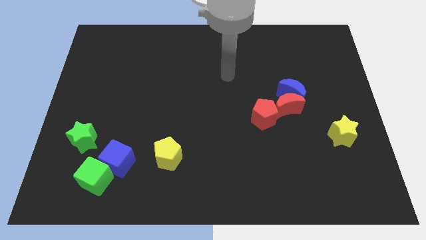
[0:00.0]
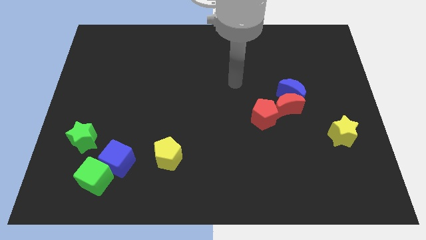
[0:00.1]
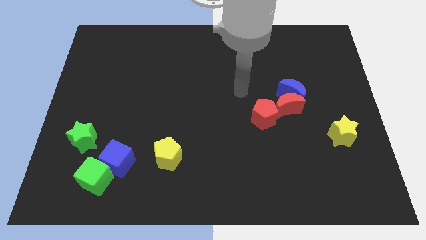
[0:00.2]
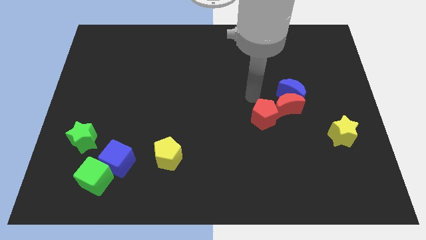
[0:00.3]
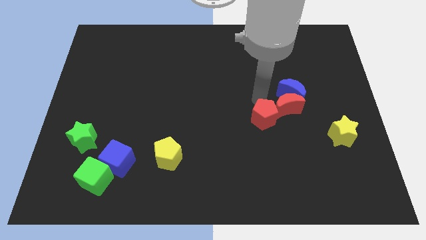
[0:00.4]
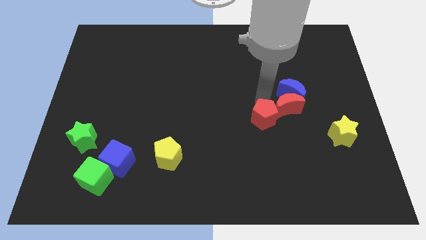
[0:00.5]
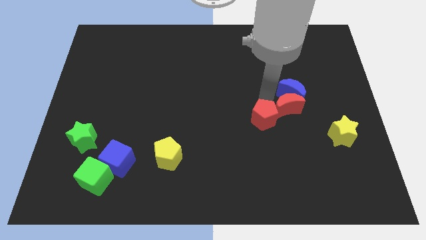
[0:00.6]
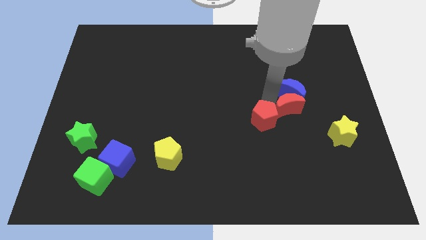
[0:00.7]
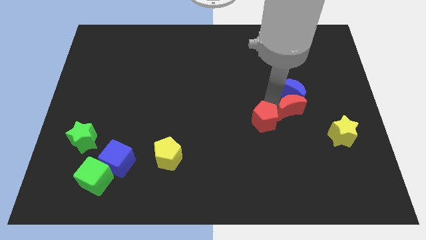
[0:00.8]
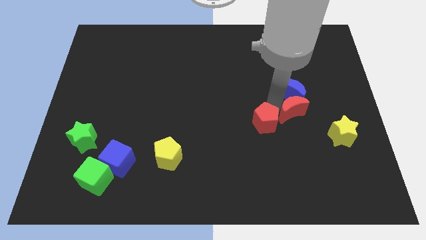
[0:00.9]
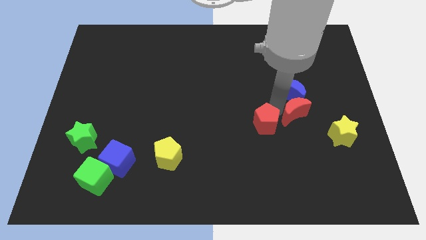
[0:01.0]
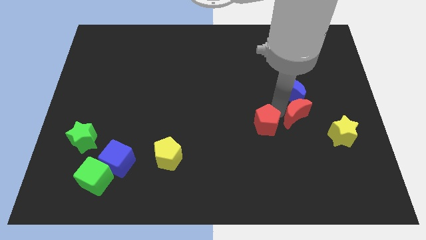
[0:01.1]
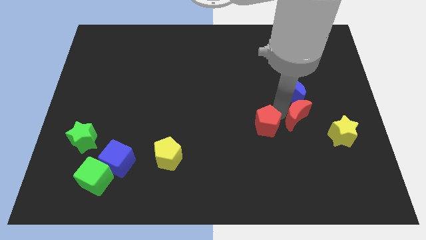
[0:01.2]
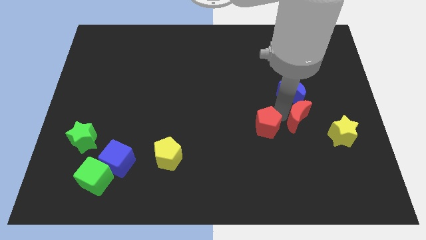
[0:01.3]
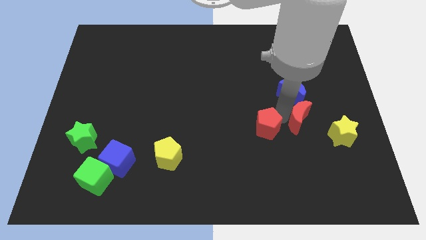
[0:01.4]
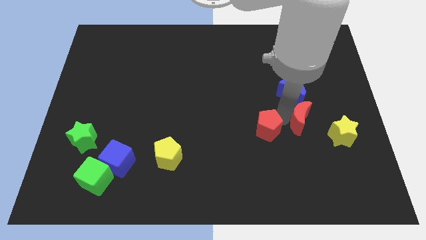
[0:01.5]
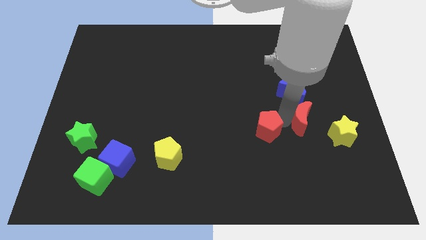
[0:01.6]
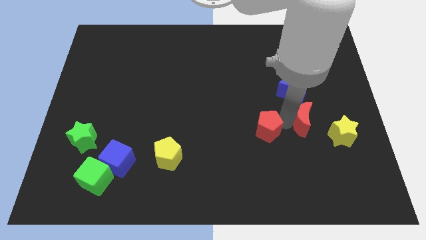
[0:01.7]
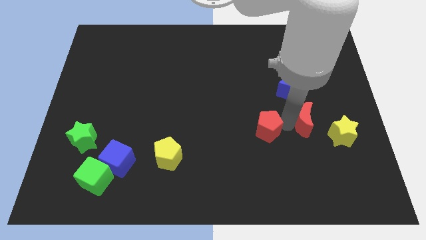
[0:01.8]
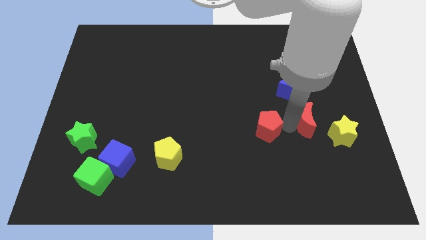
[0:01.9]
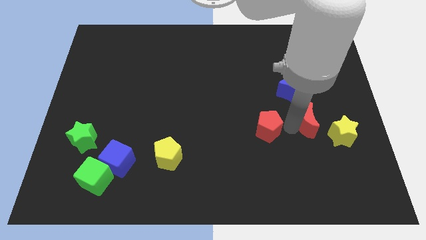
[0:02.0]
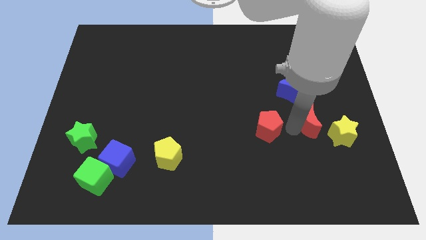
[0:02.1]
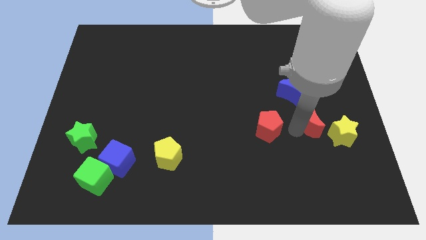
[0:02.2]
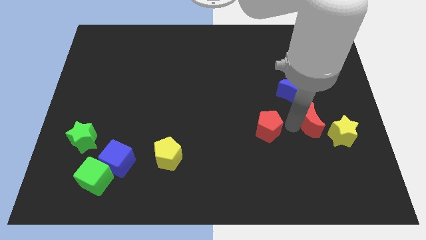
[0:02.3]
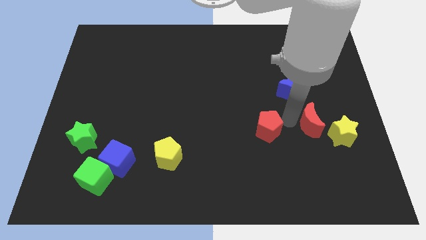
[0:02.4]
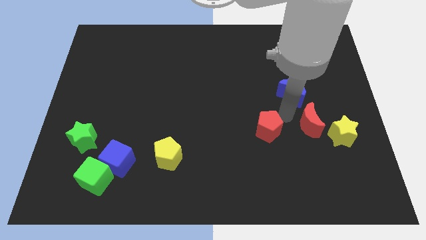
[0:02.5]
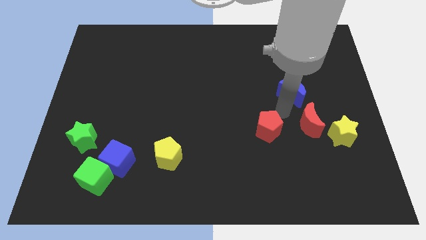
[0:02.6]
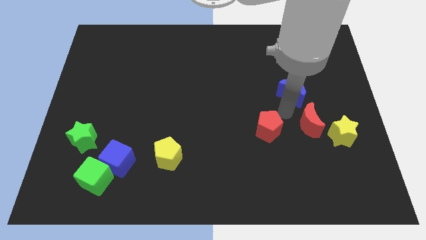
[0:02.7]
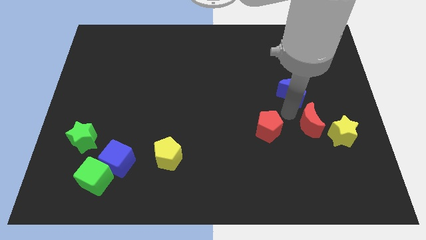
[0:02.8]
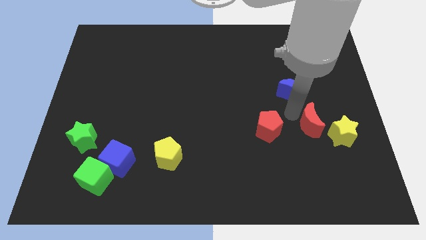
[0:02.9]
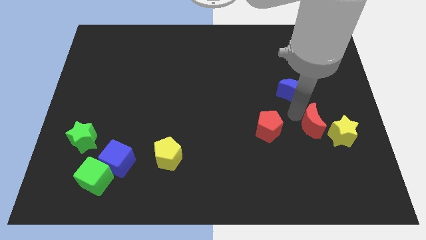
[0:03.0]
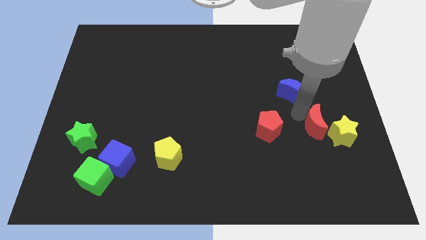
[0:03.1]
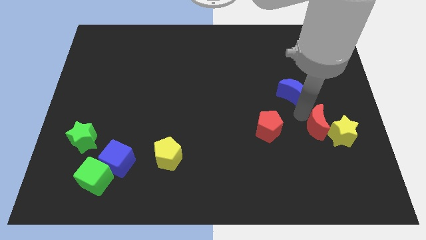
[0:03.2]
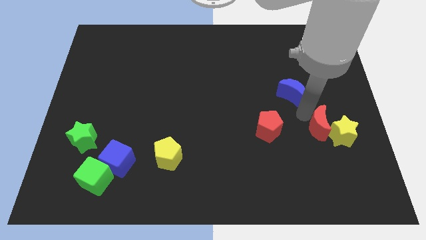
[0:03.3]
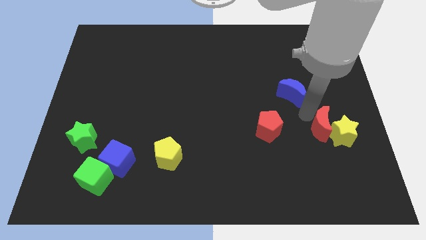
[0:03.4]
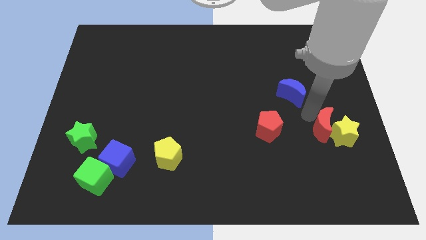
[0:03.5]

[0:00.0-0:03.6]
pull the red moon apart from the blue moon and red pentagon

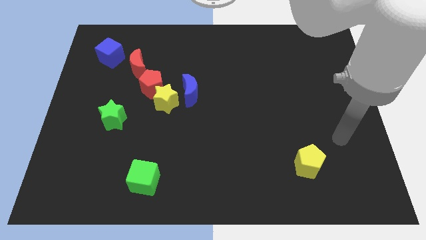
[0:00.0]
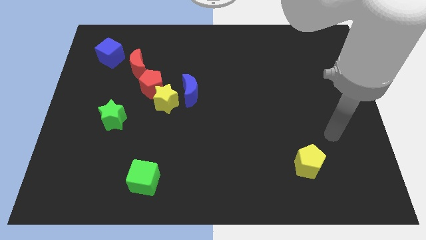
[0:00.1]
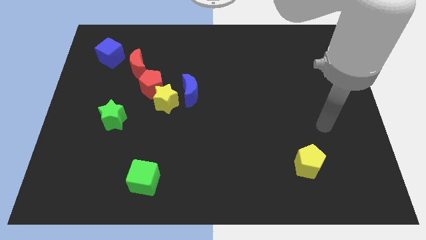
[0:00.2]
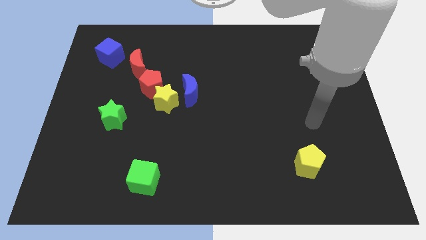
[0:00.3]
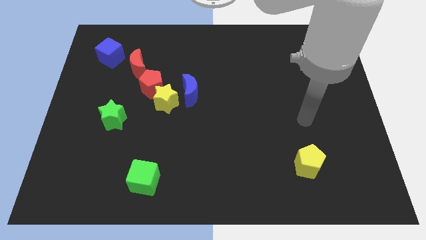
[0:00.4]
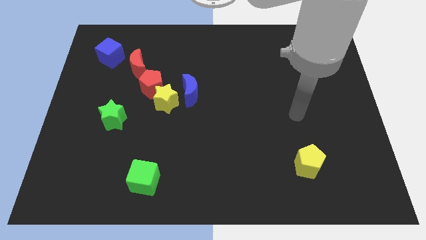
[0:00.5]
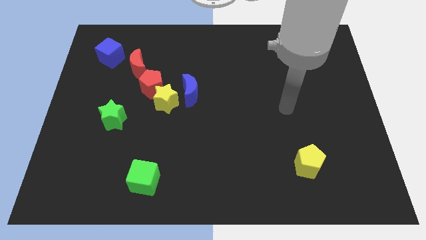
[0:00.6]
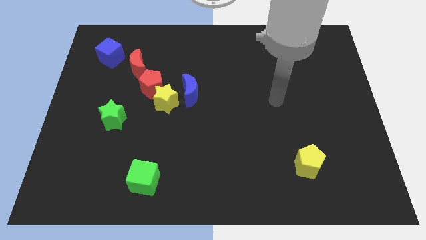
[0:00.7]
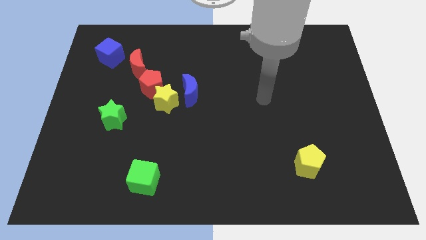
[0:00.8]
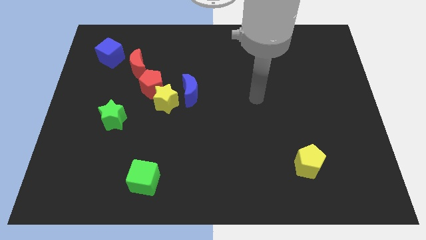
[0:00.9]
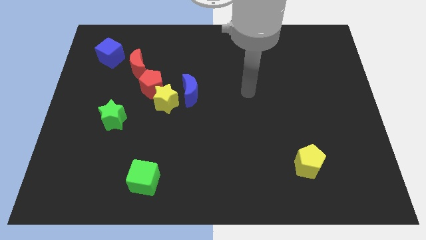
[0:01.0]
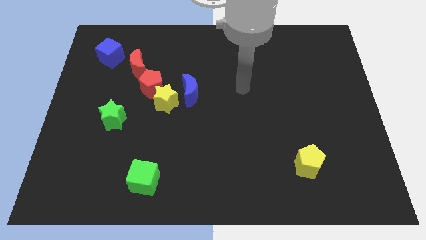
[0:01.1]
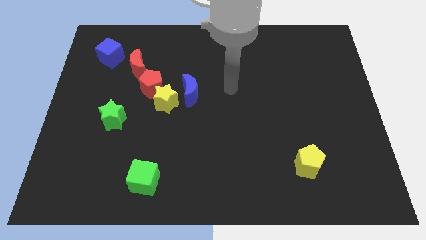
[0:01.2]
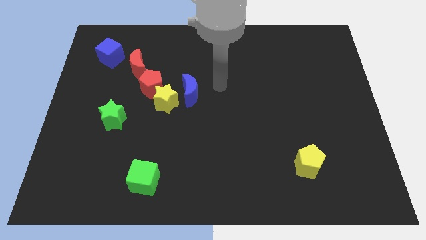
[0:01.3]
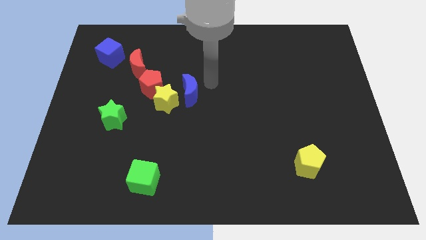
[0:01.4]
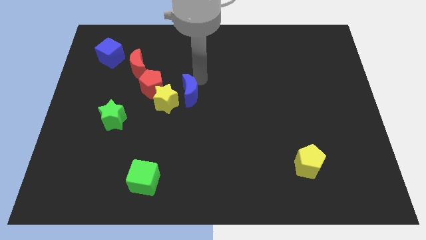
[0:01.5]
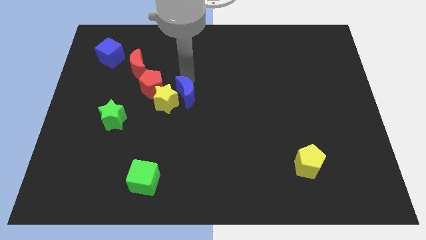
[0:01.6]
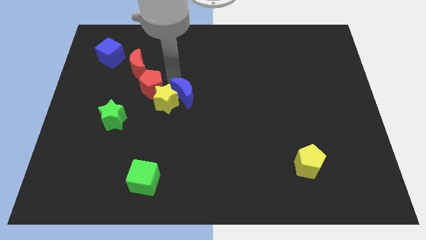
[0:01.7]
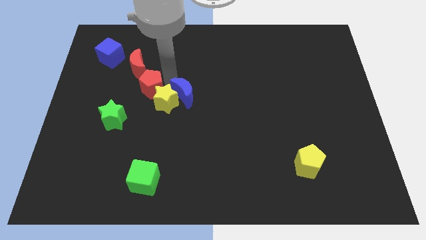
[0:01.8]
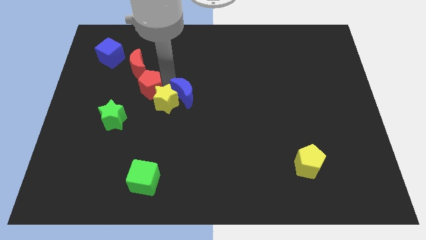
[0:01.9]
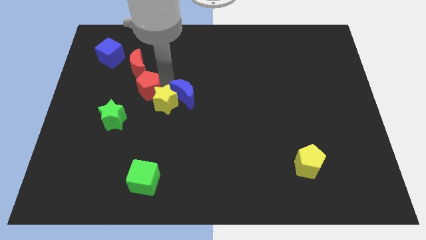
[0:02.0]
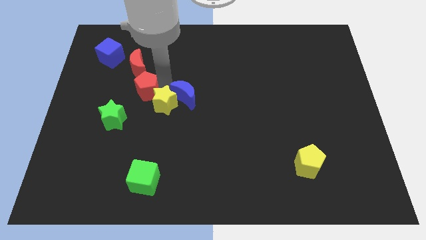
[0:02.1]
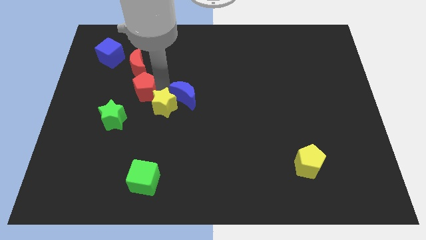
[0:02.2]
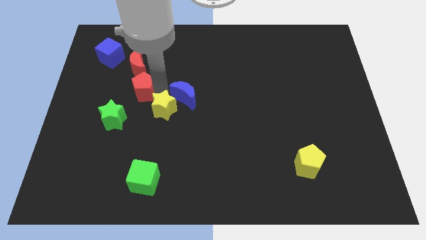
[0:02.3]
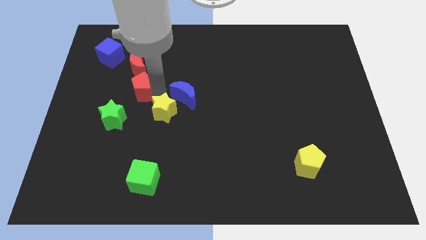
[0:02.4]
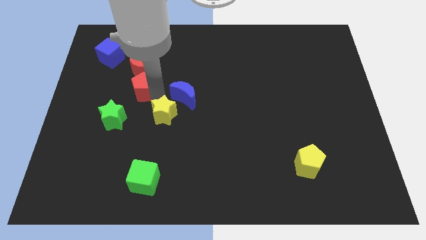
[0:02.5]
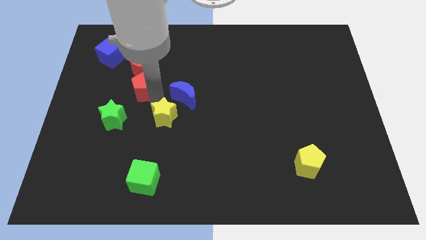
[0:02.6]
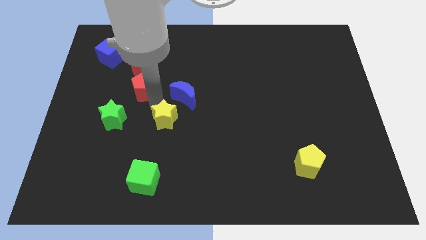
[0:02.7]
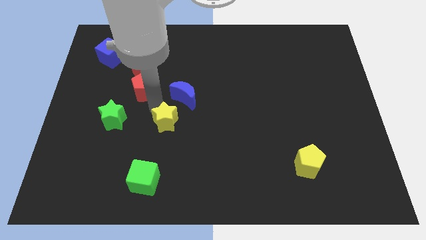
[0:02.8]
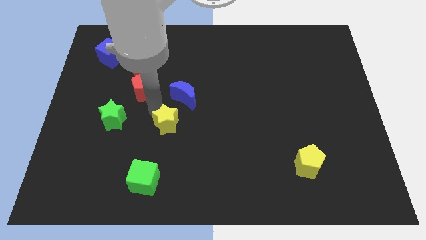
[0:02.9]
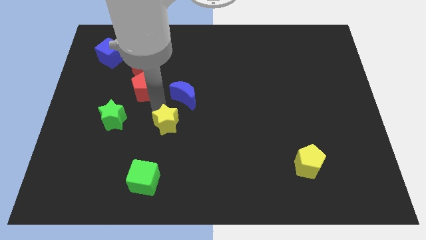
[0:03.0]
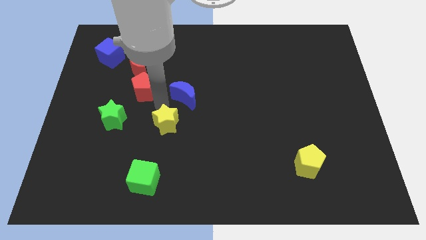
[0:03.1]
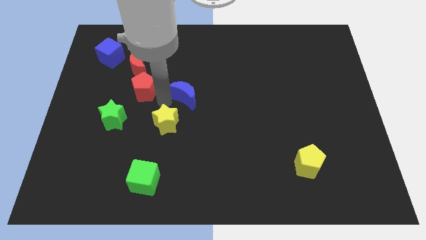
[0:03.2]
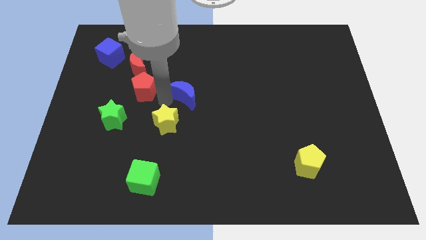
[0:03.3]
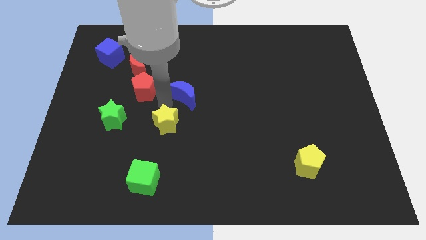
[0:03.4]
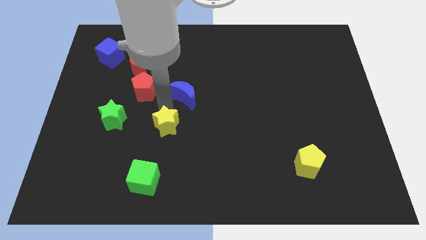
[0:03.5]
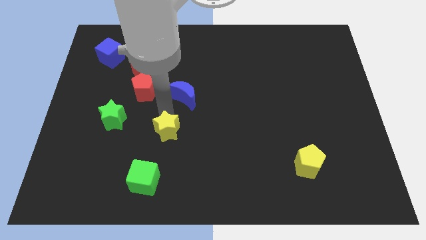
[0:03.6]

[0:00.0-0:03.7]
pull the yellow star apart from the red pentagon and blue moon

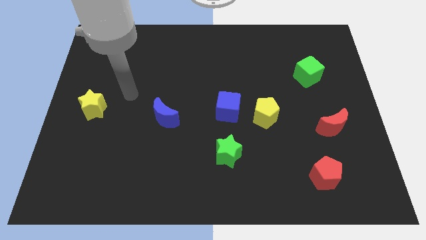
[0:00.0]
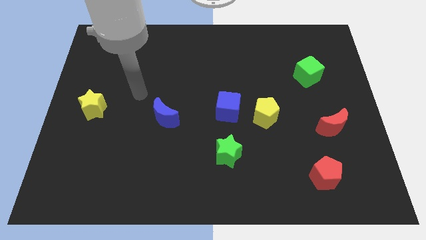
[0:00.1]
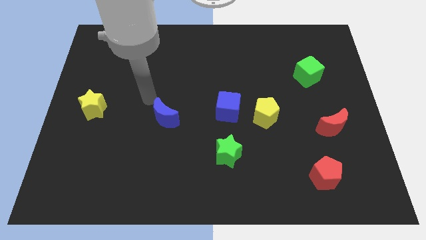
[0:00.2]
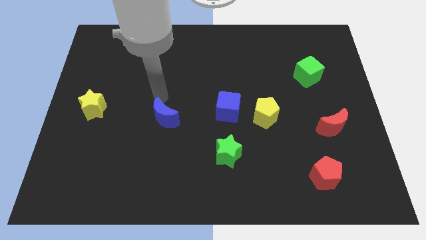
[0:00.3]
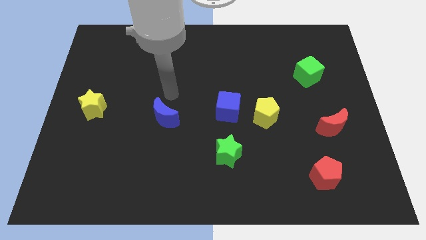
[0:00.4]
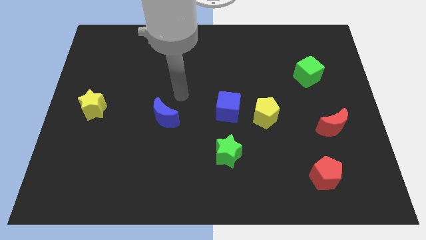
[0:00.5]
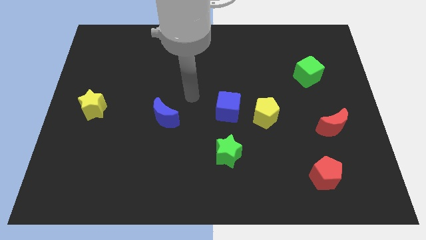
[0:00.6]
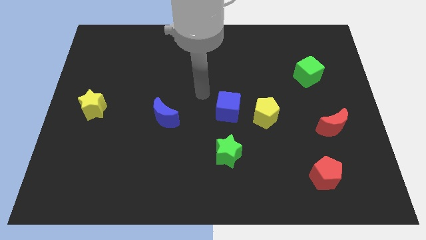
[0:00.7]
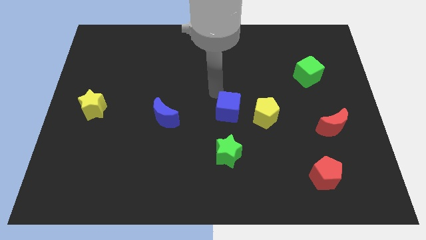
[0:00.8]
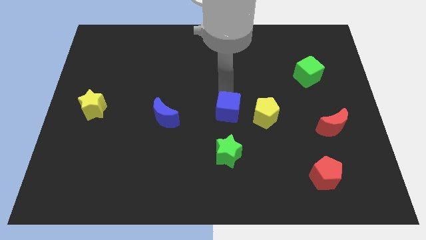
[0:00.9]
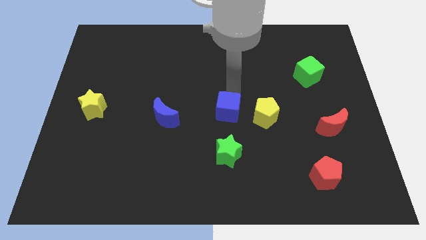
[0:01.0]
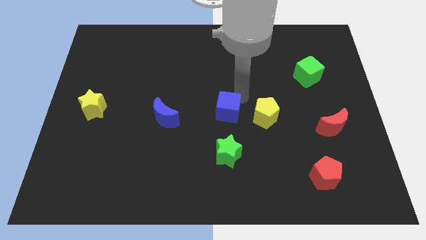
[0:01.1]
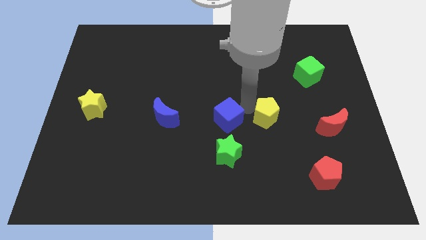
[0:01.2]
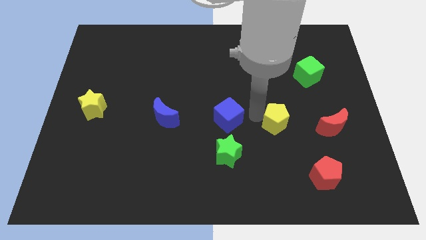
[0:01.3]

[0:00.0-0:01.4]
pull the blue cube apart from the yellow pentagon

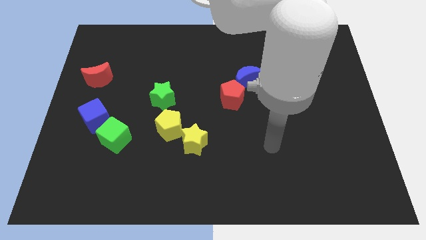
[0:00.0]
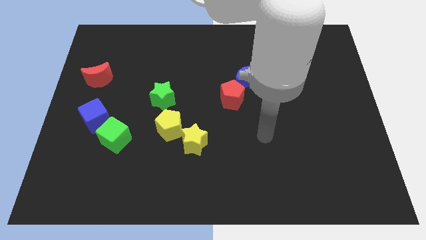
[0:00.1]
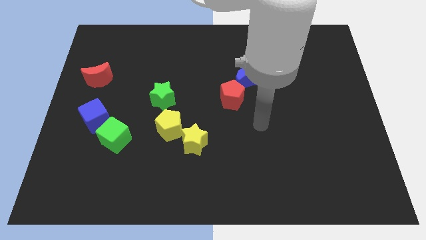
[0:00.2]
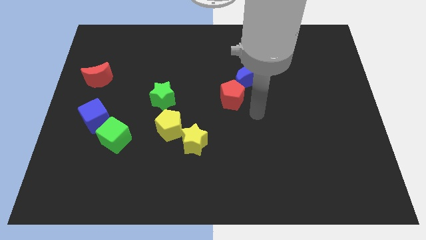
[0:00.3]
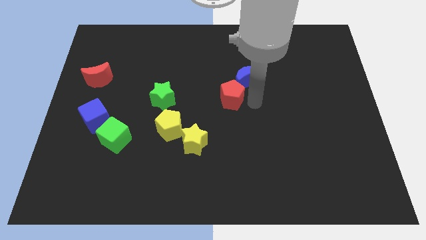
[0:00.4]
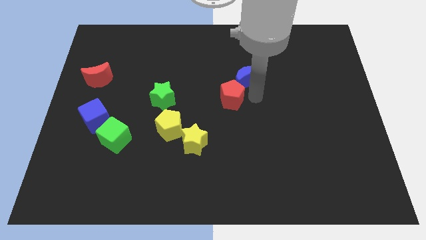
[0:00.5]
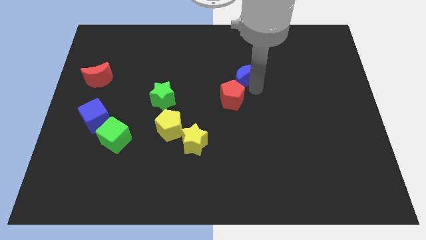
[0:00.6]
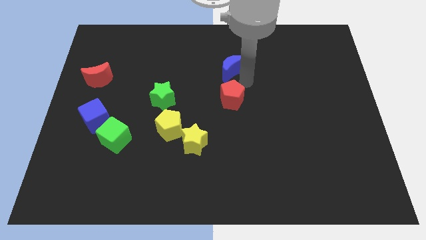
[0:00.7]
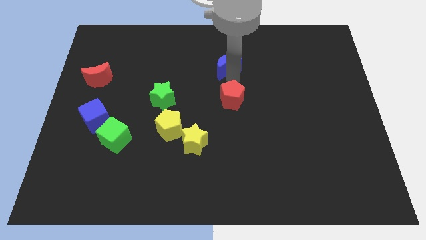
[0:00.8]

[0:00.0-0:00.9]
pull the red pentagon apart from the blue moon

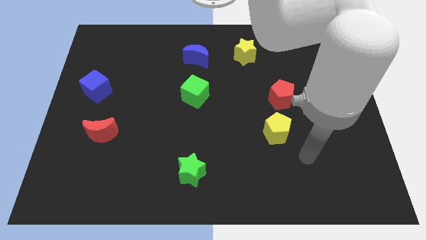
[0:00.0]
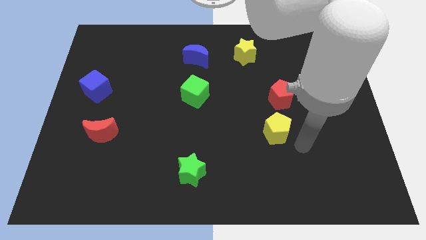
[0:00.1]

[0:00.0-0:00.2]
pull the red pentagon apart from the yellow pentagon